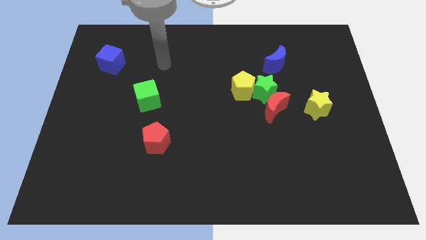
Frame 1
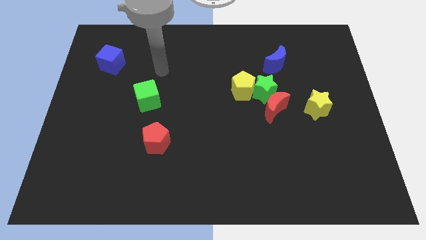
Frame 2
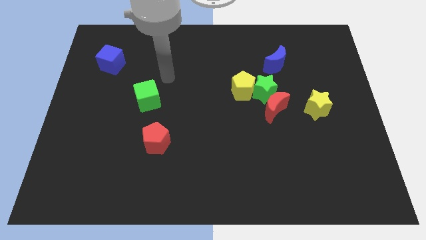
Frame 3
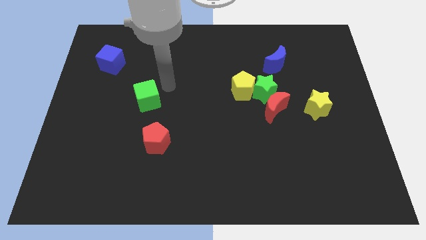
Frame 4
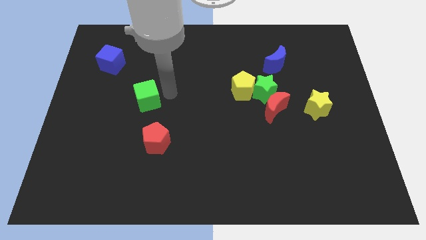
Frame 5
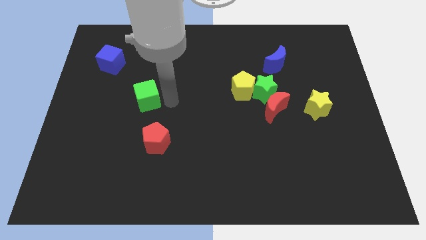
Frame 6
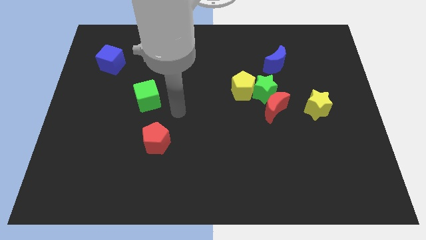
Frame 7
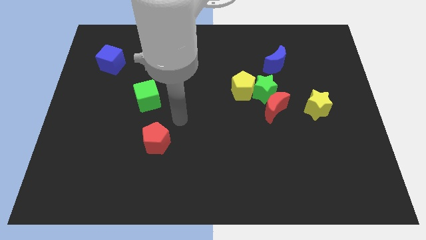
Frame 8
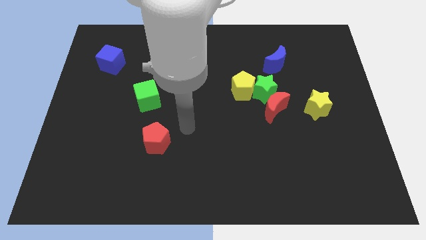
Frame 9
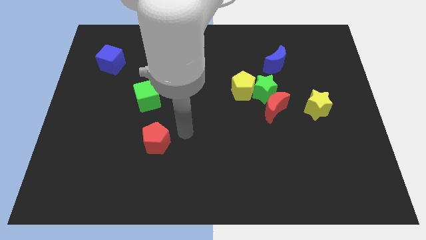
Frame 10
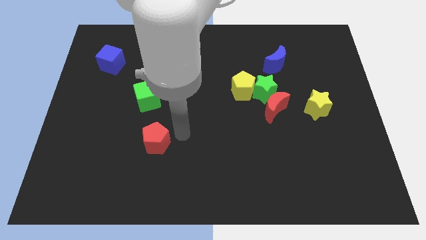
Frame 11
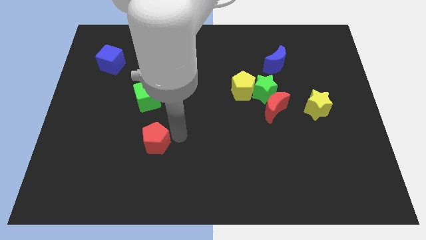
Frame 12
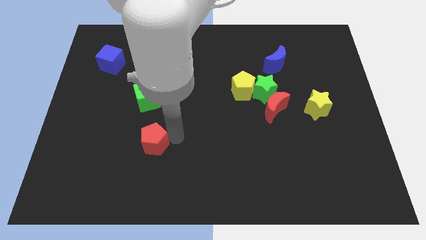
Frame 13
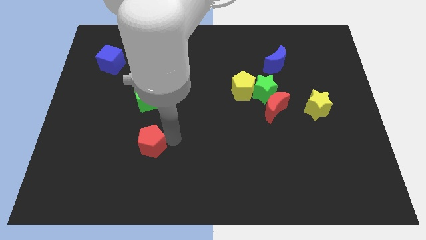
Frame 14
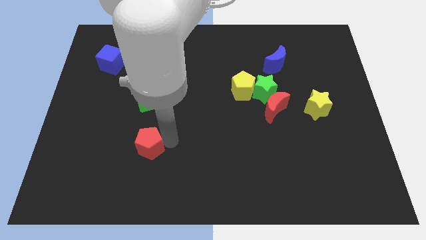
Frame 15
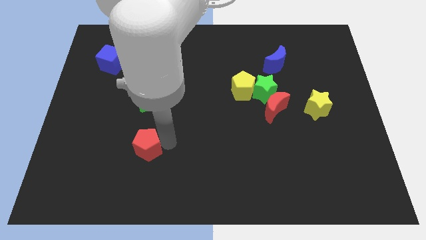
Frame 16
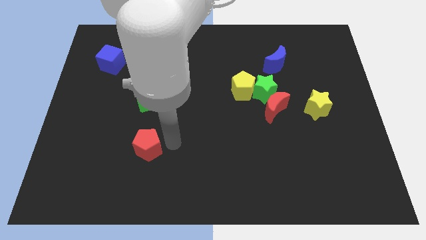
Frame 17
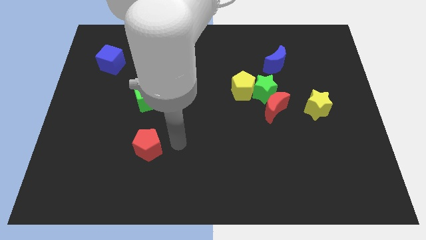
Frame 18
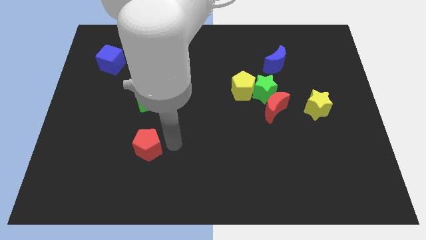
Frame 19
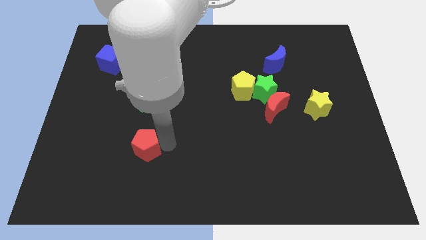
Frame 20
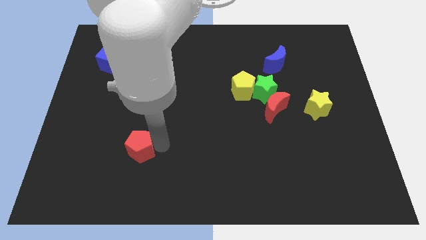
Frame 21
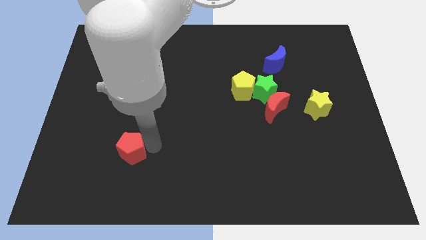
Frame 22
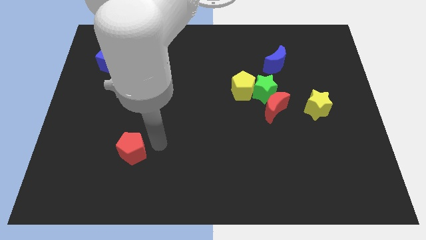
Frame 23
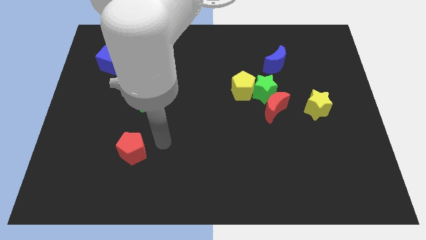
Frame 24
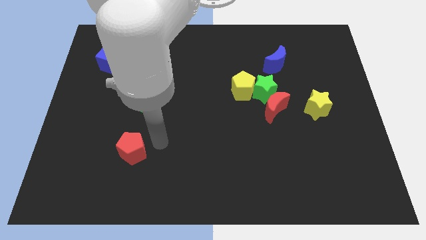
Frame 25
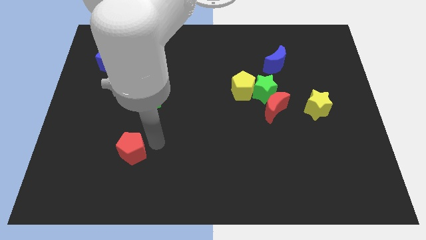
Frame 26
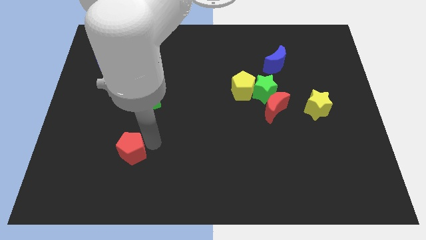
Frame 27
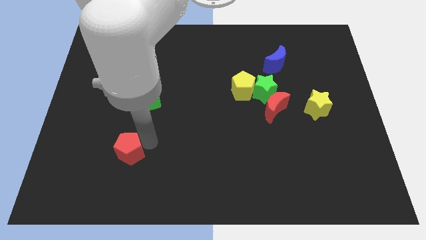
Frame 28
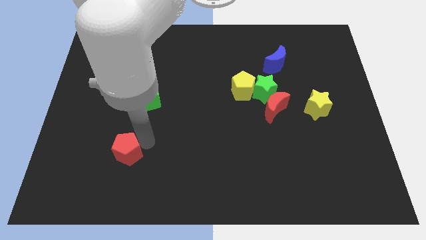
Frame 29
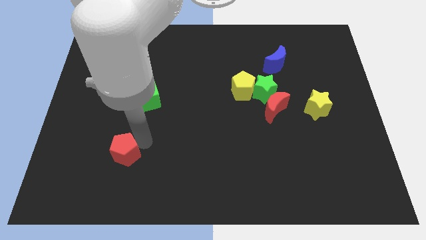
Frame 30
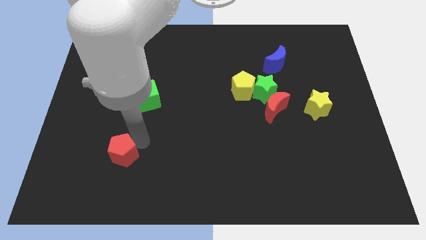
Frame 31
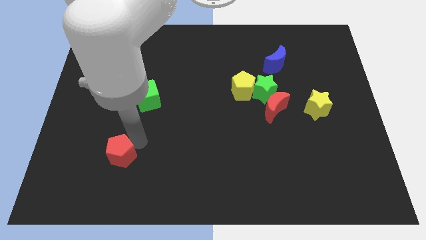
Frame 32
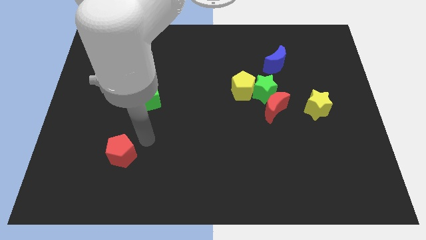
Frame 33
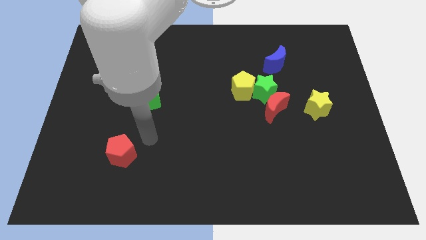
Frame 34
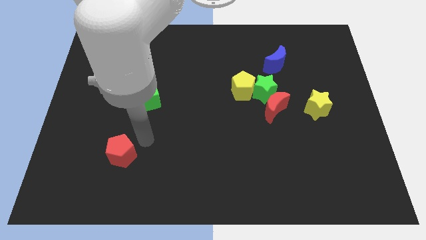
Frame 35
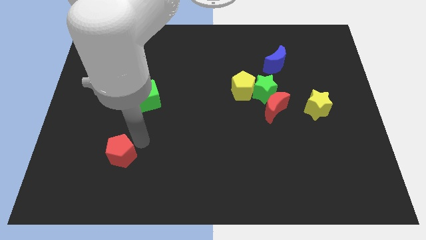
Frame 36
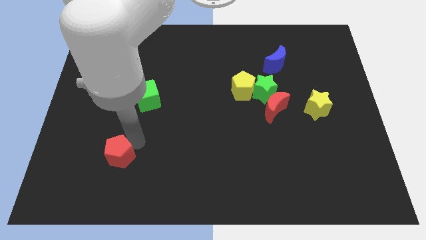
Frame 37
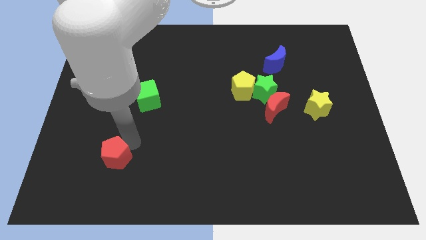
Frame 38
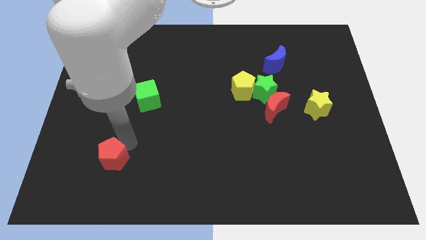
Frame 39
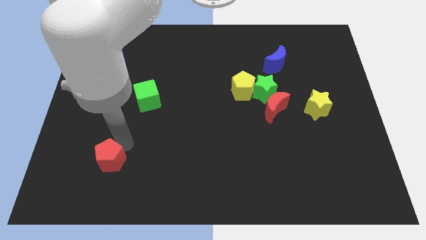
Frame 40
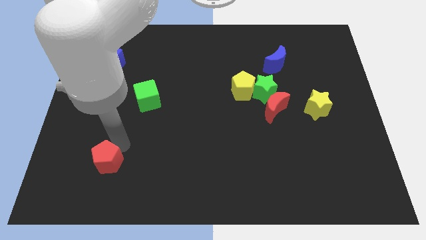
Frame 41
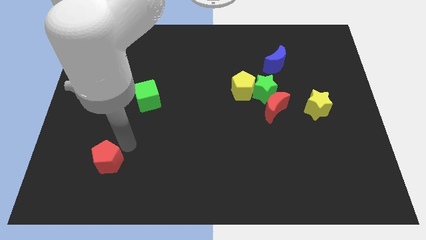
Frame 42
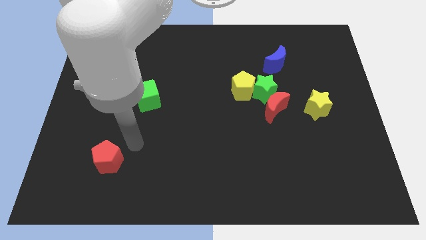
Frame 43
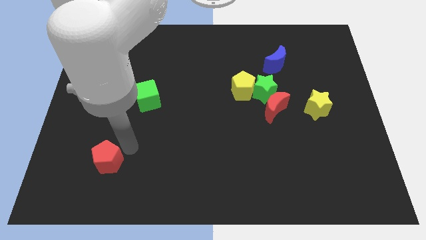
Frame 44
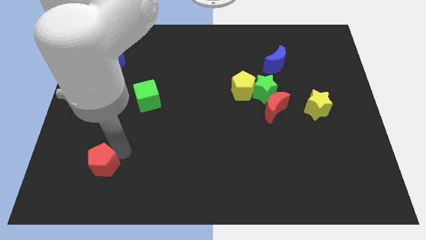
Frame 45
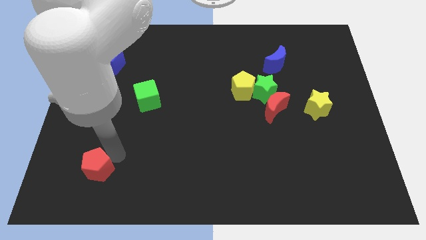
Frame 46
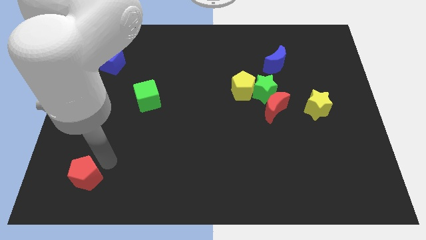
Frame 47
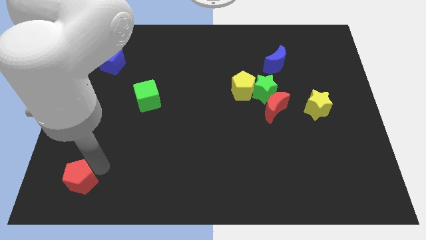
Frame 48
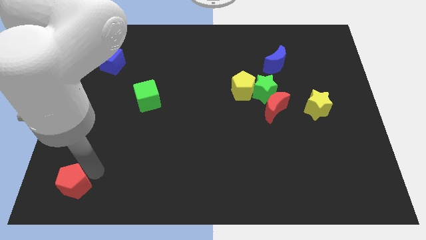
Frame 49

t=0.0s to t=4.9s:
put the red pentagon to the lower left corner

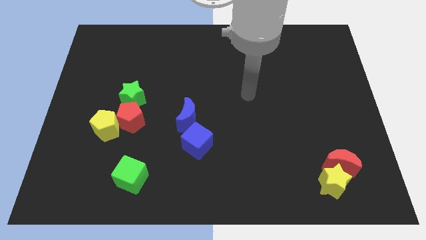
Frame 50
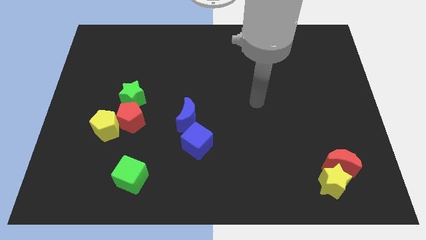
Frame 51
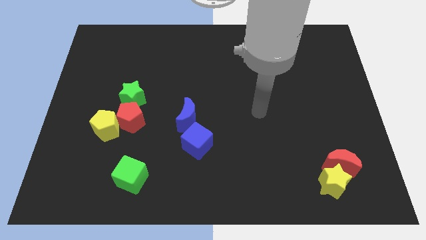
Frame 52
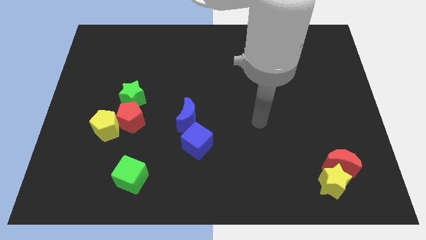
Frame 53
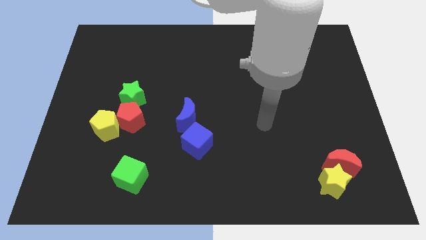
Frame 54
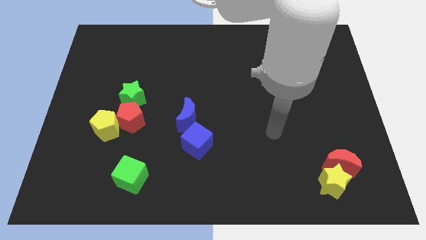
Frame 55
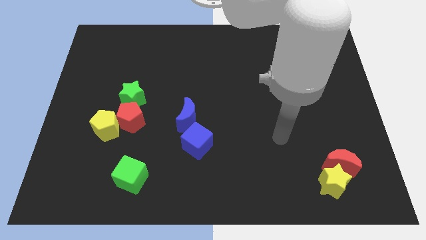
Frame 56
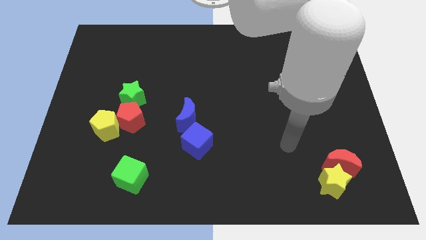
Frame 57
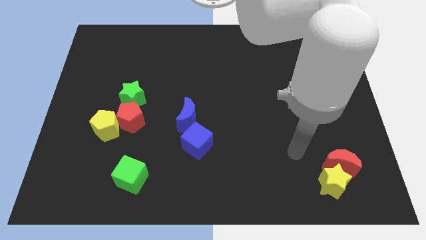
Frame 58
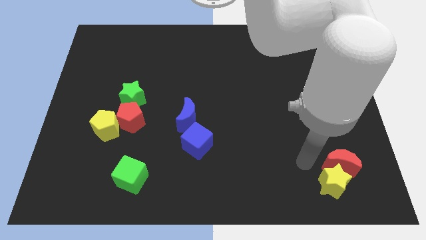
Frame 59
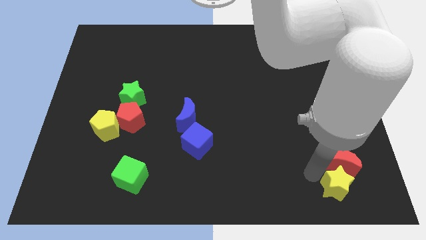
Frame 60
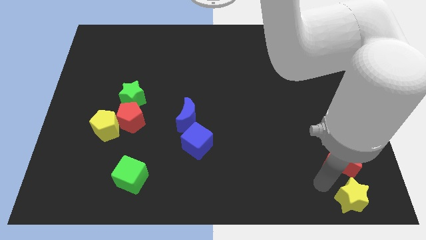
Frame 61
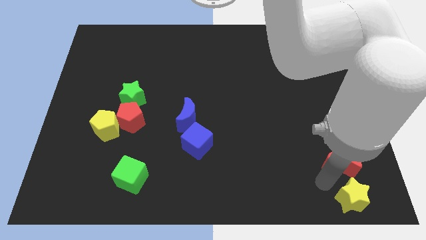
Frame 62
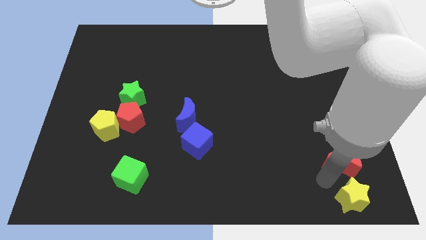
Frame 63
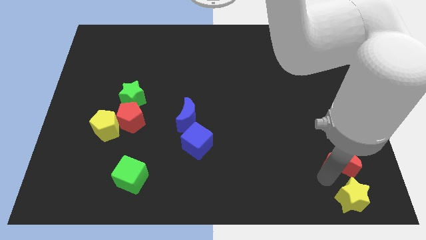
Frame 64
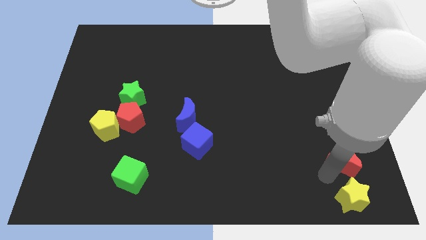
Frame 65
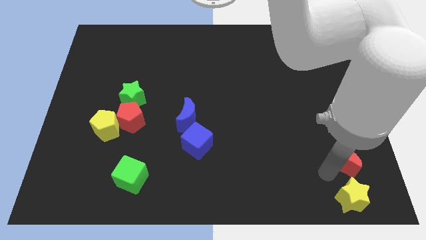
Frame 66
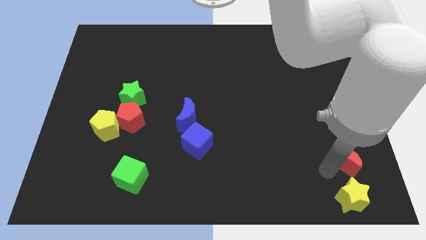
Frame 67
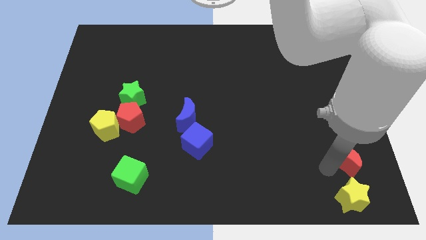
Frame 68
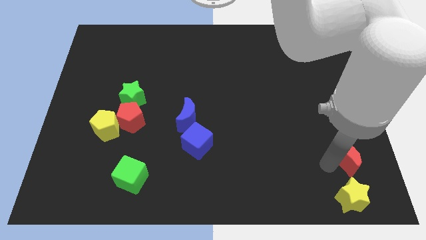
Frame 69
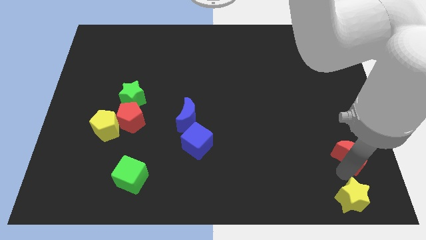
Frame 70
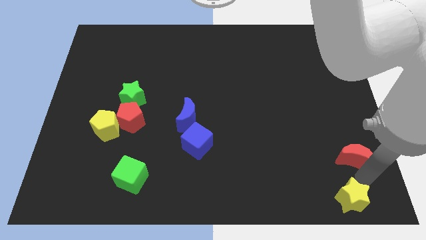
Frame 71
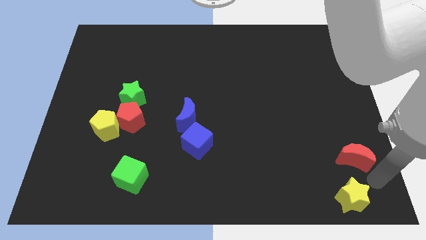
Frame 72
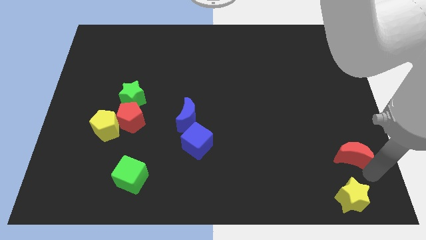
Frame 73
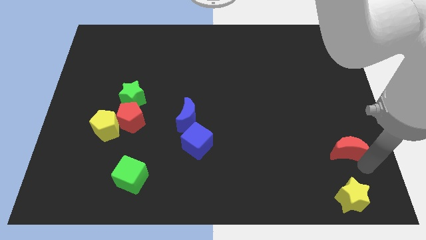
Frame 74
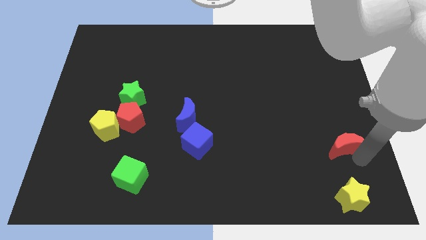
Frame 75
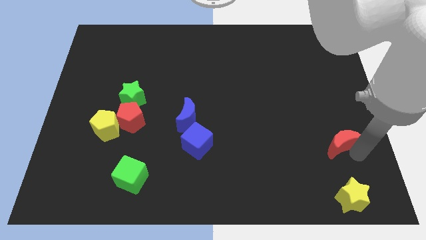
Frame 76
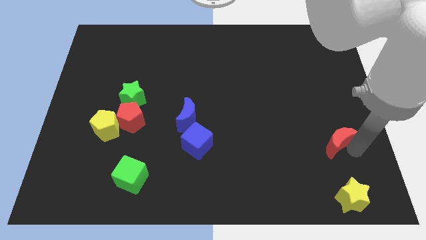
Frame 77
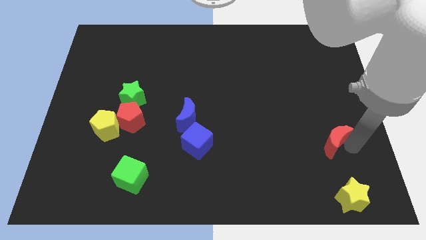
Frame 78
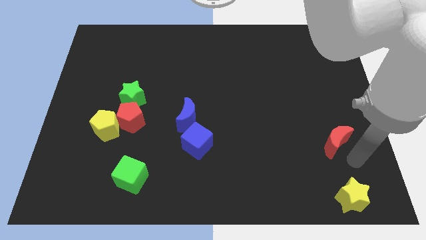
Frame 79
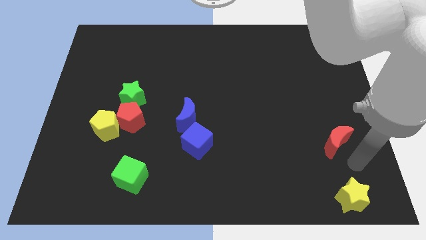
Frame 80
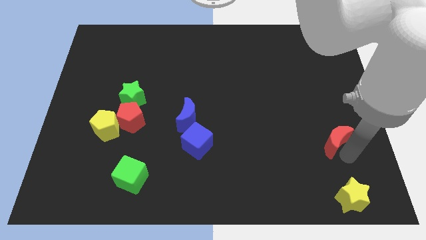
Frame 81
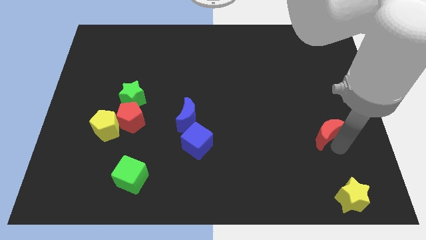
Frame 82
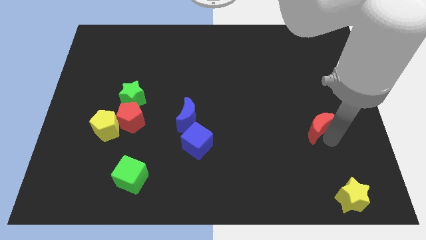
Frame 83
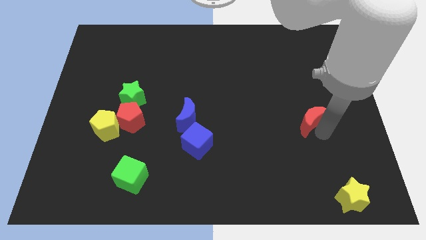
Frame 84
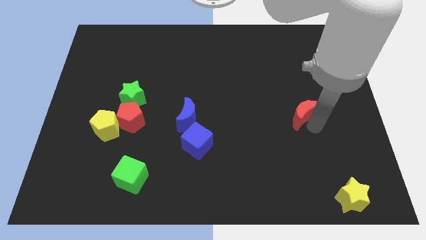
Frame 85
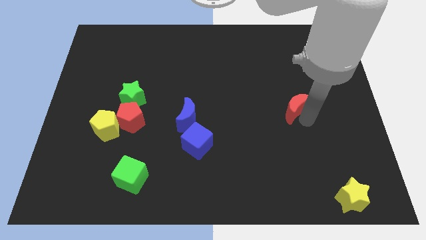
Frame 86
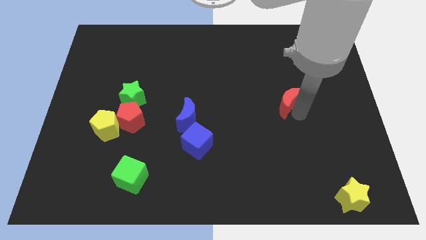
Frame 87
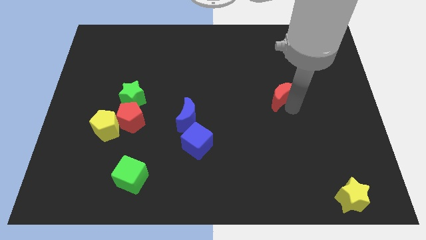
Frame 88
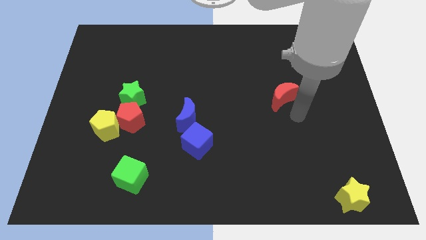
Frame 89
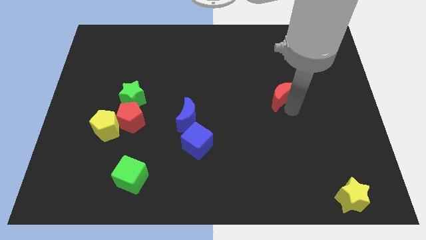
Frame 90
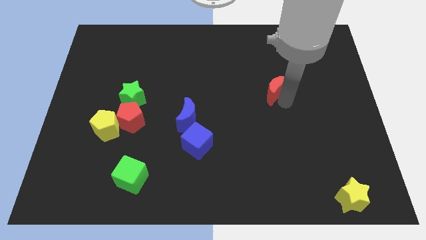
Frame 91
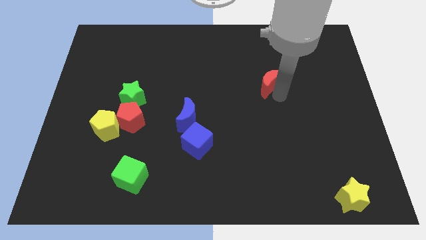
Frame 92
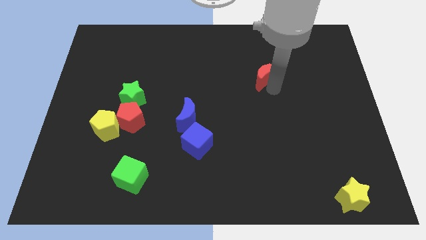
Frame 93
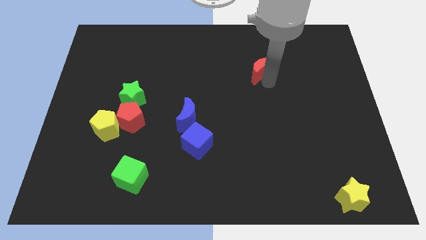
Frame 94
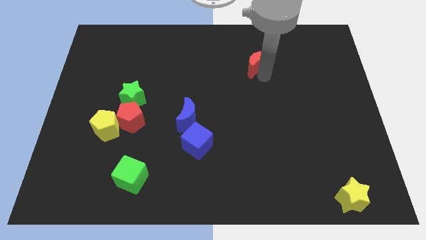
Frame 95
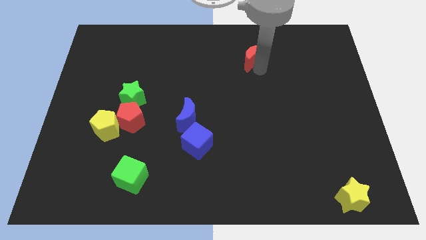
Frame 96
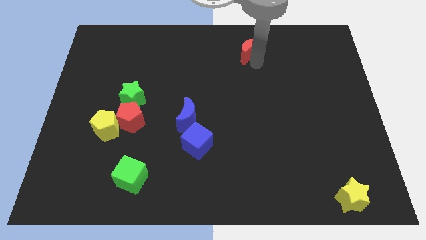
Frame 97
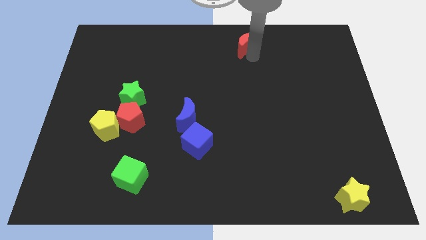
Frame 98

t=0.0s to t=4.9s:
move the red moon to the top
